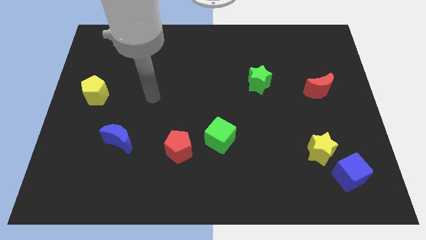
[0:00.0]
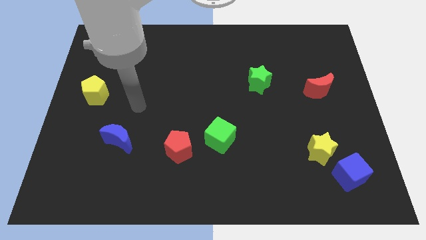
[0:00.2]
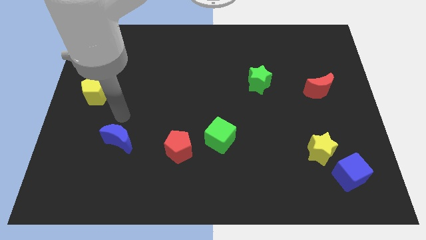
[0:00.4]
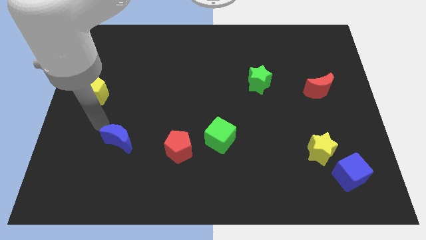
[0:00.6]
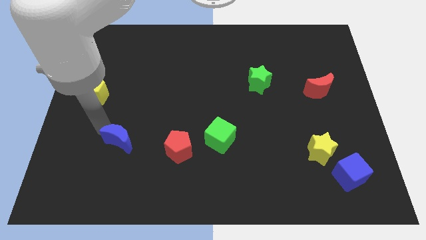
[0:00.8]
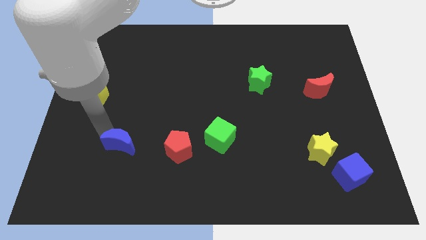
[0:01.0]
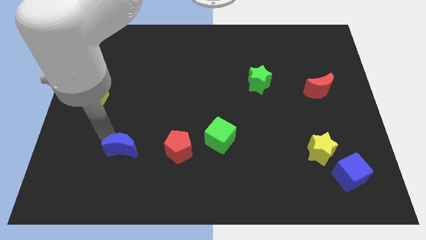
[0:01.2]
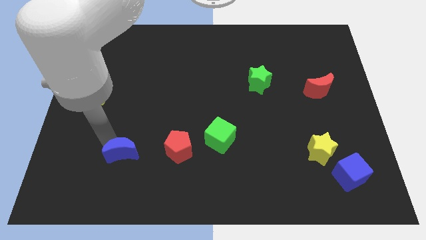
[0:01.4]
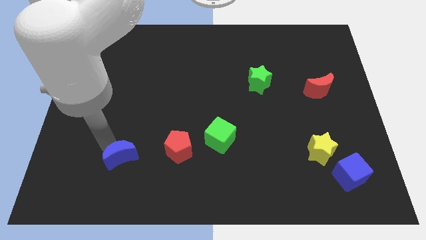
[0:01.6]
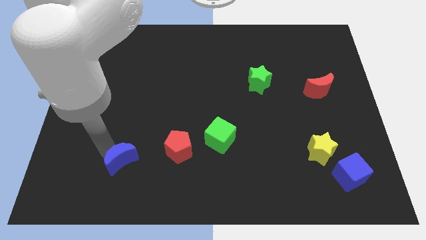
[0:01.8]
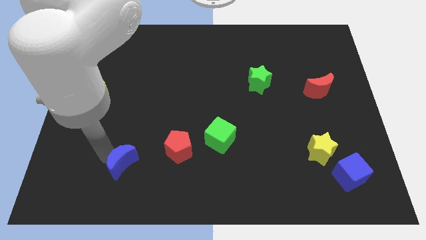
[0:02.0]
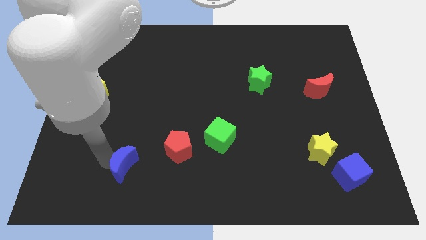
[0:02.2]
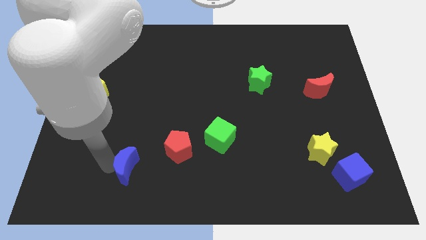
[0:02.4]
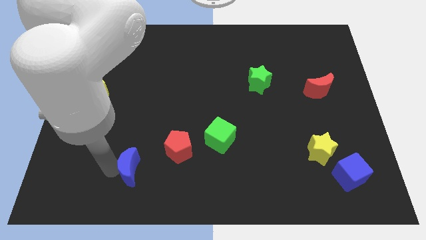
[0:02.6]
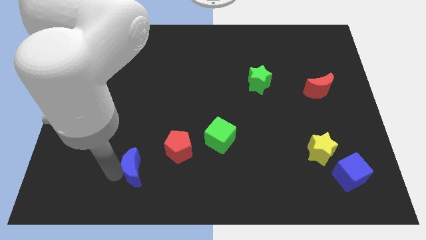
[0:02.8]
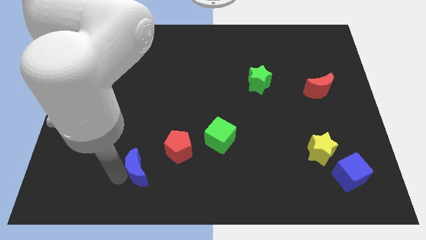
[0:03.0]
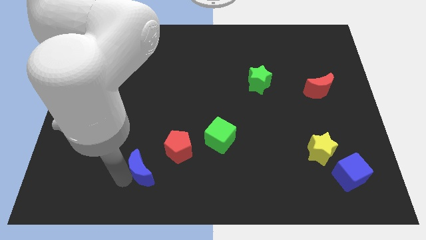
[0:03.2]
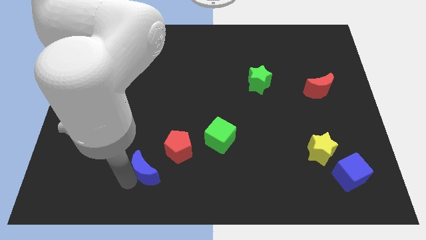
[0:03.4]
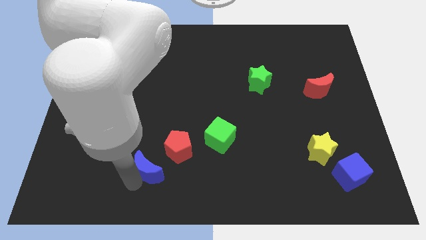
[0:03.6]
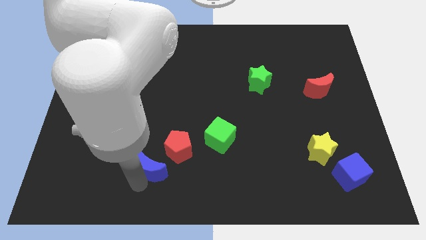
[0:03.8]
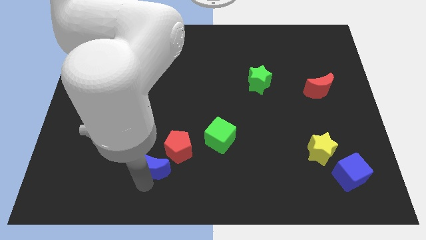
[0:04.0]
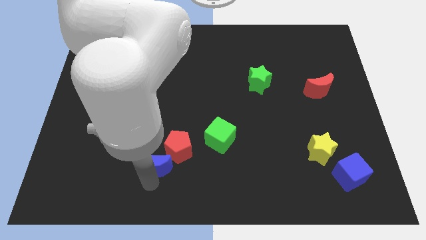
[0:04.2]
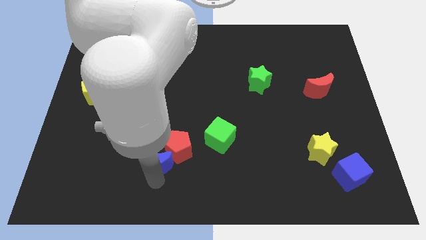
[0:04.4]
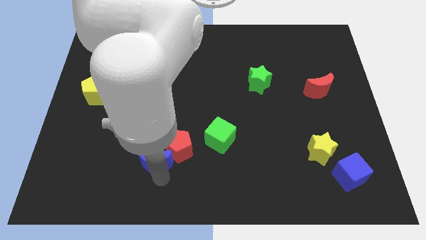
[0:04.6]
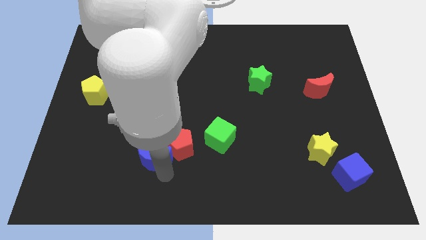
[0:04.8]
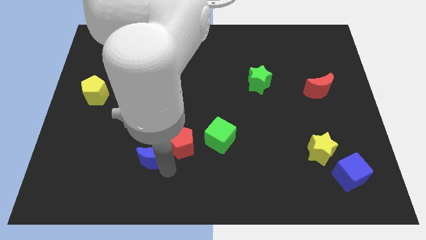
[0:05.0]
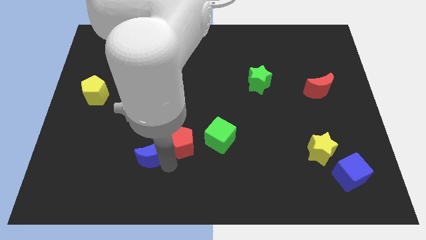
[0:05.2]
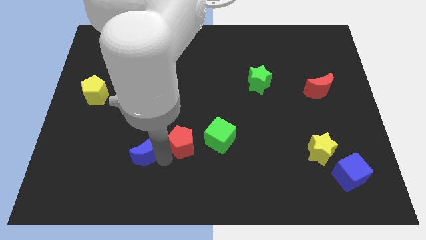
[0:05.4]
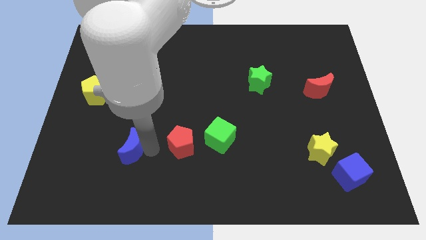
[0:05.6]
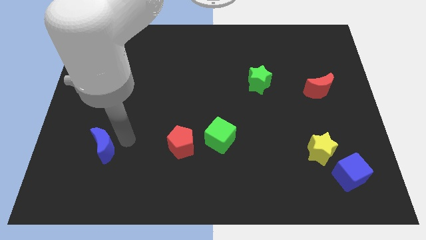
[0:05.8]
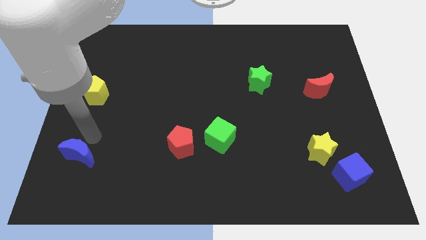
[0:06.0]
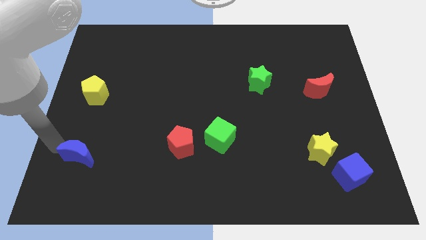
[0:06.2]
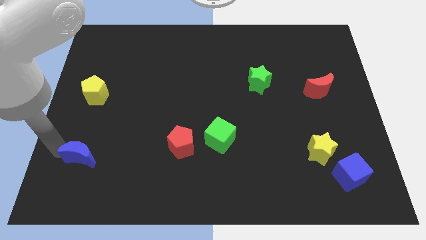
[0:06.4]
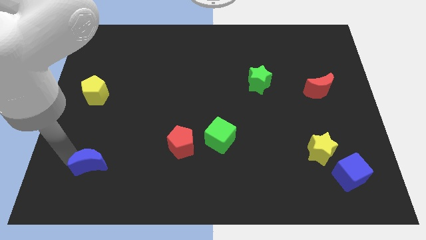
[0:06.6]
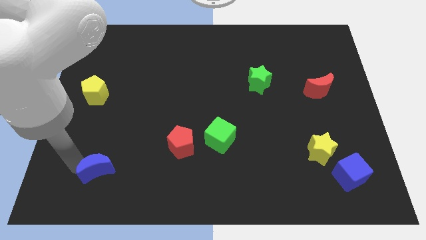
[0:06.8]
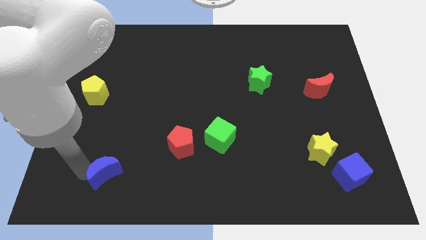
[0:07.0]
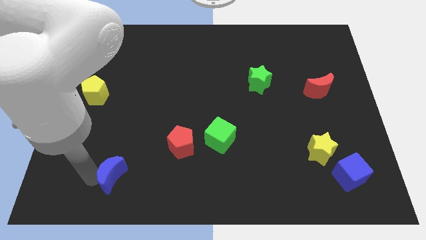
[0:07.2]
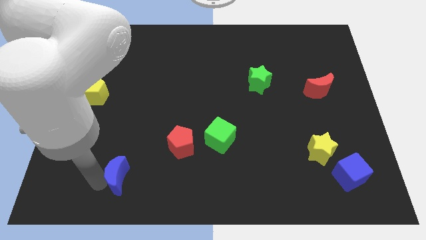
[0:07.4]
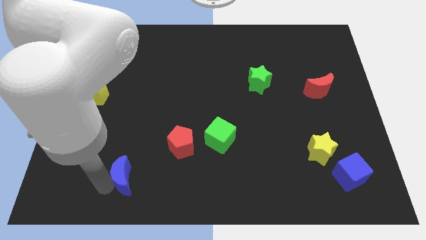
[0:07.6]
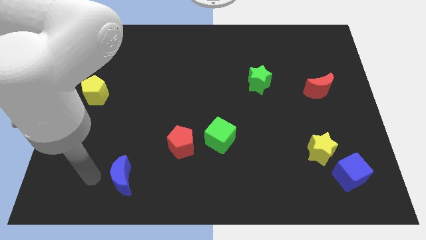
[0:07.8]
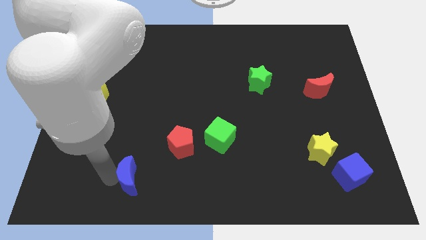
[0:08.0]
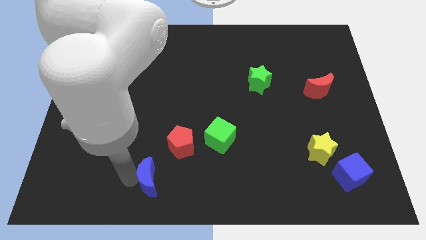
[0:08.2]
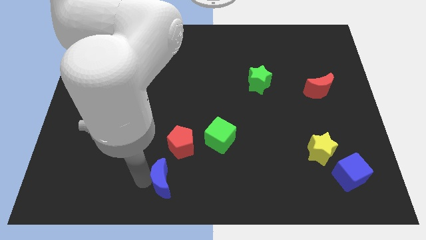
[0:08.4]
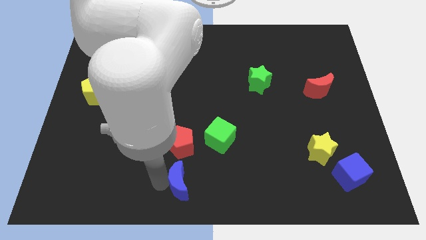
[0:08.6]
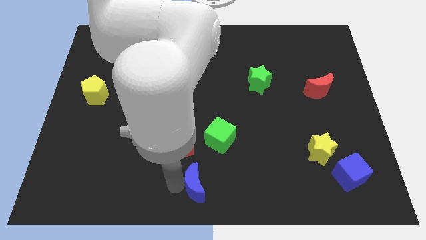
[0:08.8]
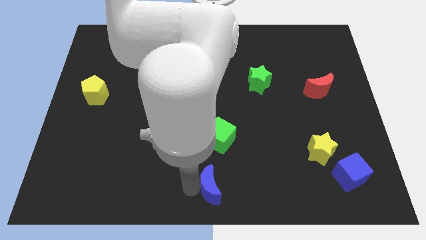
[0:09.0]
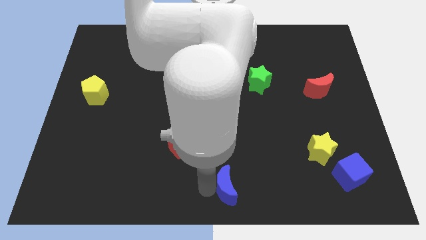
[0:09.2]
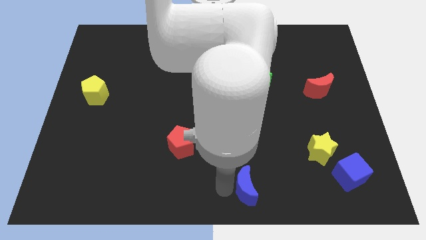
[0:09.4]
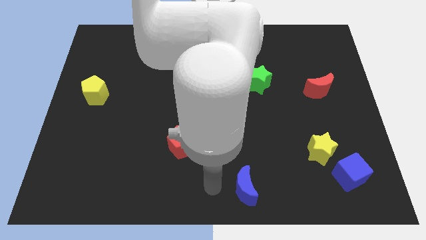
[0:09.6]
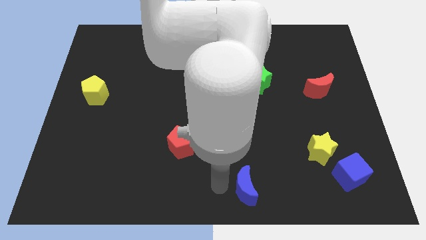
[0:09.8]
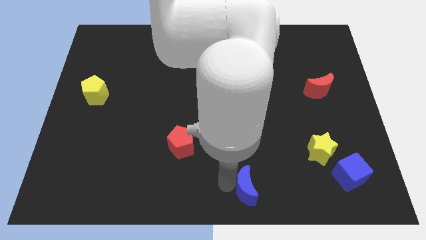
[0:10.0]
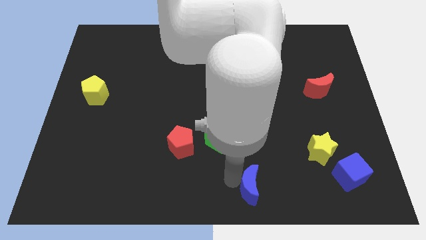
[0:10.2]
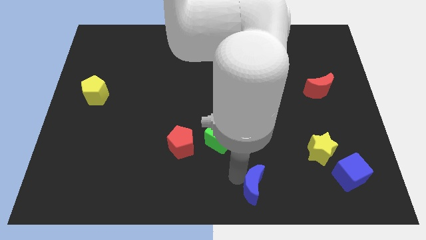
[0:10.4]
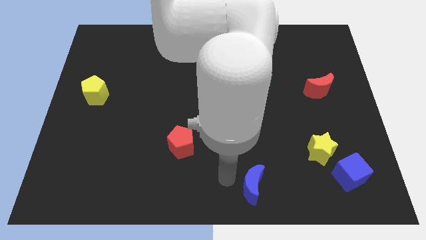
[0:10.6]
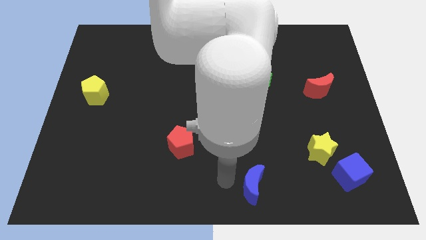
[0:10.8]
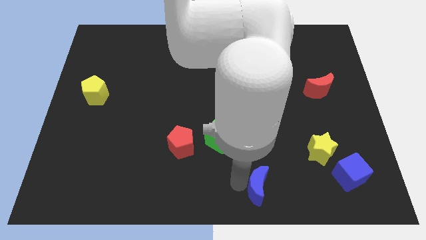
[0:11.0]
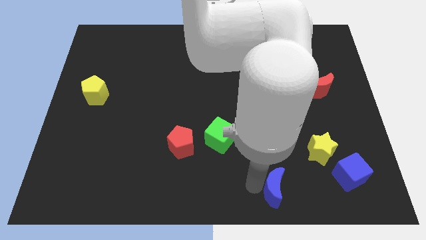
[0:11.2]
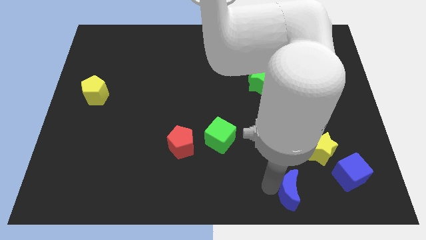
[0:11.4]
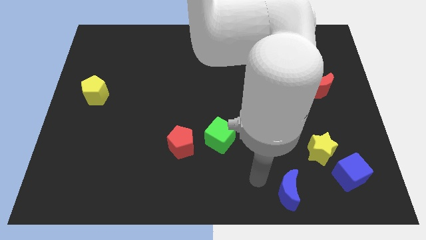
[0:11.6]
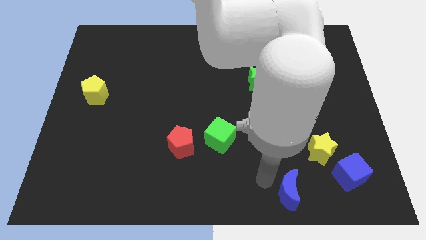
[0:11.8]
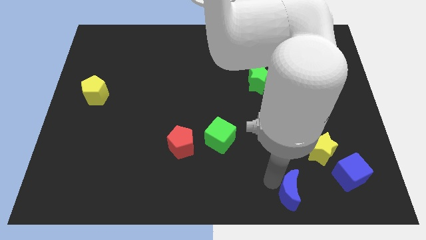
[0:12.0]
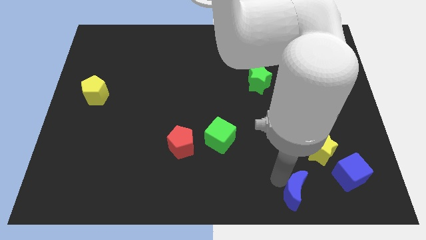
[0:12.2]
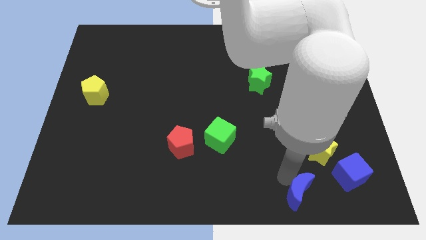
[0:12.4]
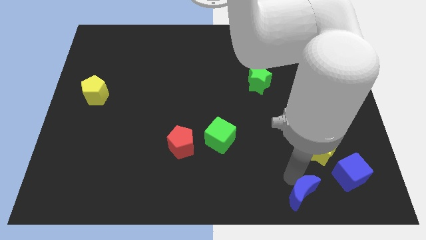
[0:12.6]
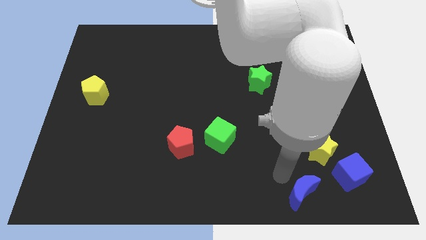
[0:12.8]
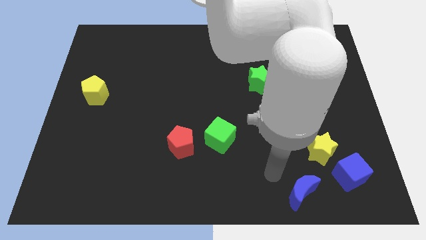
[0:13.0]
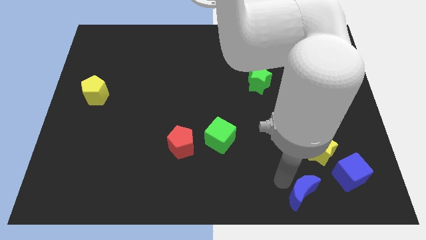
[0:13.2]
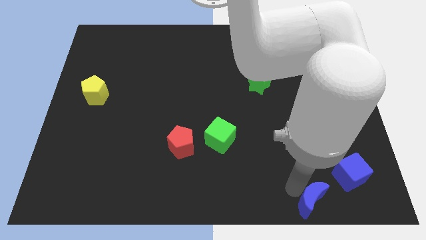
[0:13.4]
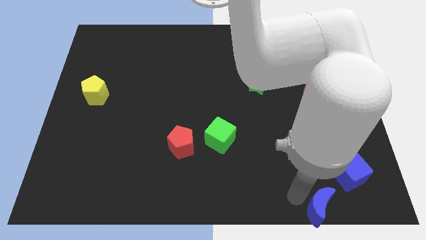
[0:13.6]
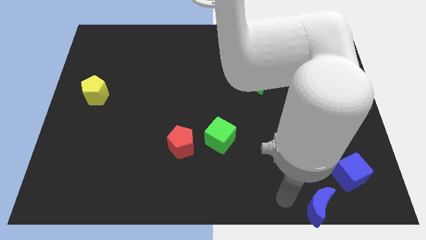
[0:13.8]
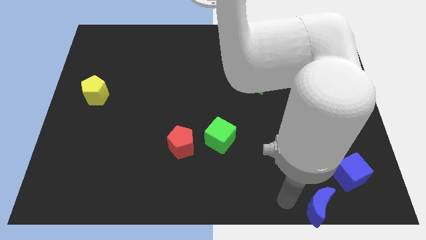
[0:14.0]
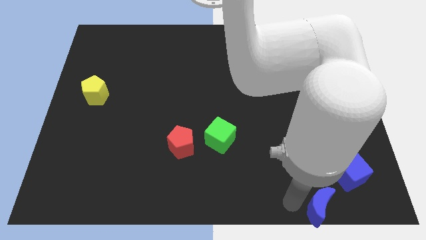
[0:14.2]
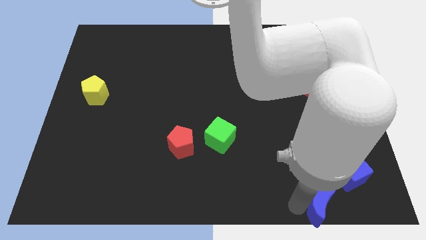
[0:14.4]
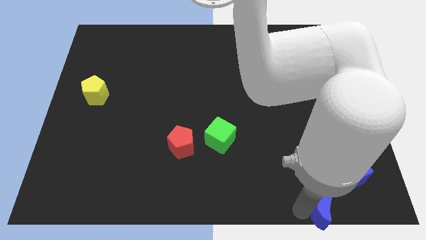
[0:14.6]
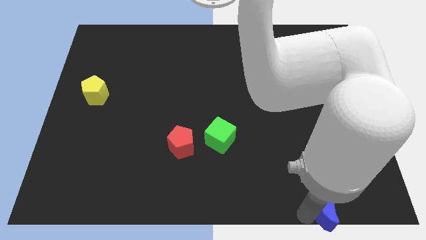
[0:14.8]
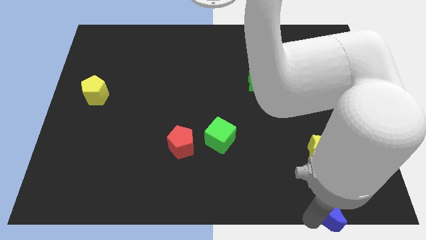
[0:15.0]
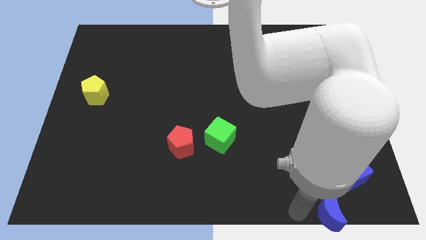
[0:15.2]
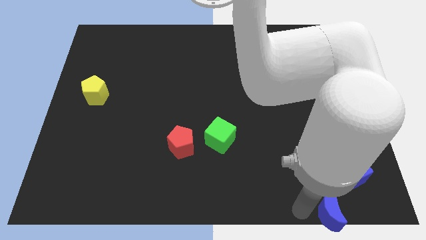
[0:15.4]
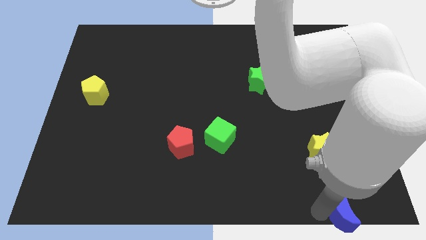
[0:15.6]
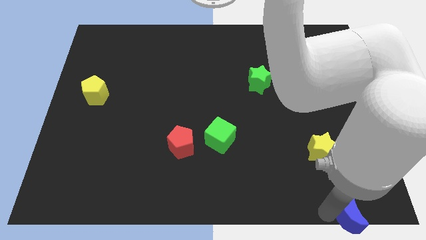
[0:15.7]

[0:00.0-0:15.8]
slide the blue moon to the bottom right
